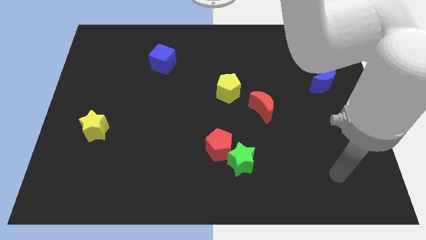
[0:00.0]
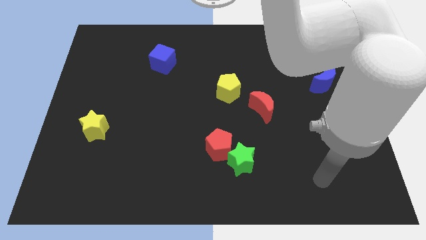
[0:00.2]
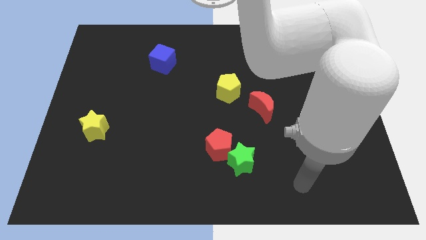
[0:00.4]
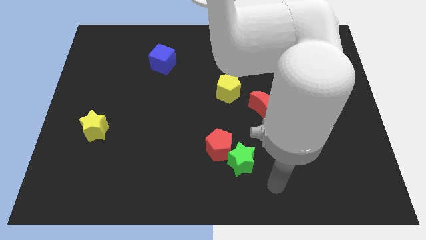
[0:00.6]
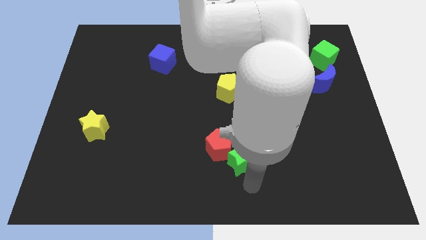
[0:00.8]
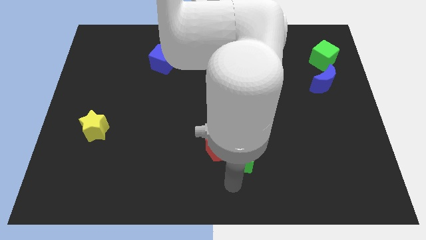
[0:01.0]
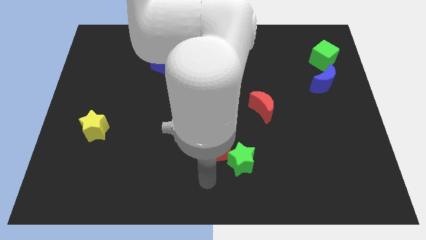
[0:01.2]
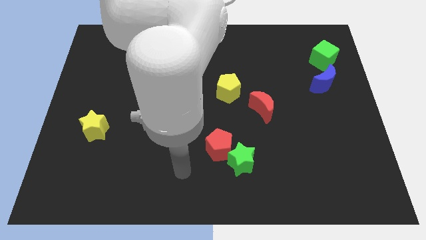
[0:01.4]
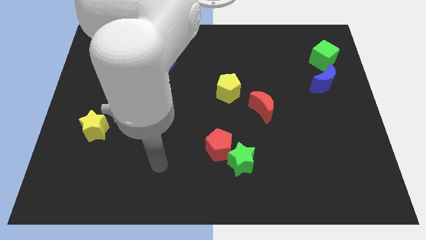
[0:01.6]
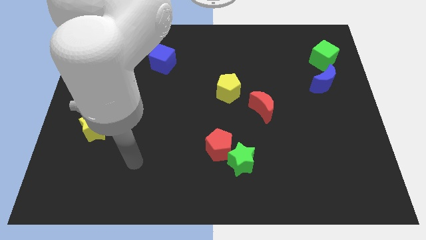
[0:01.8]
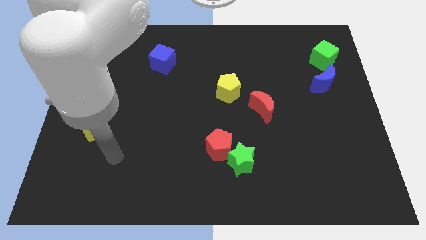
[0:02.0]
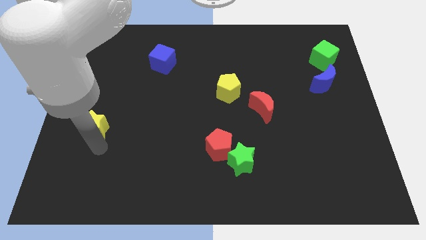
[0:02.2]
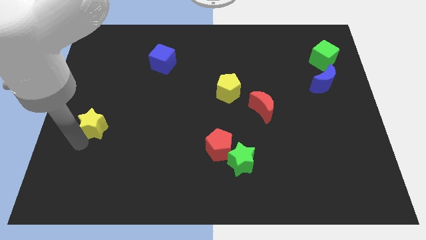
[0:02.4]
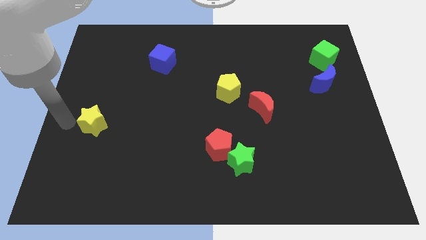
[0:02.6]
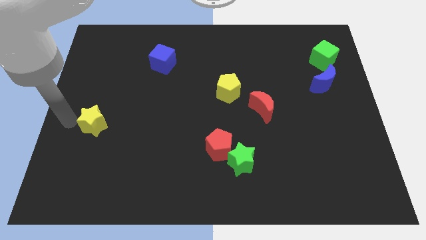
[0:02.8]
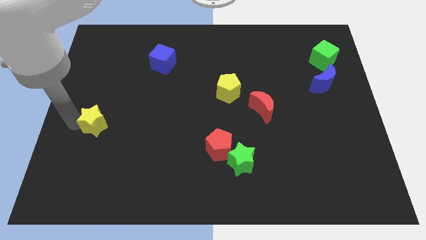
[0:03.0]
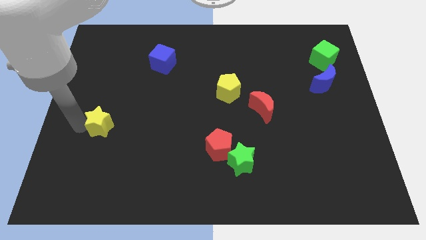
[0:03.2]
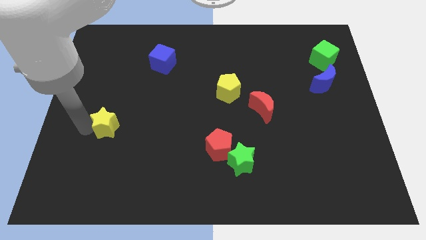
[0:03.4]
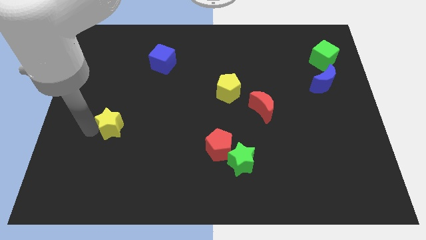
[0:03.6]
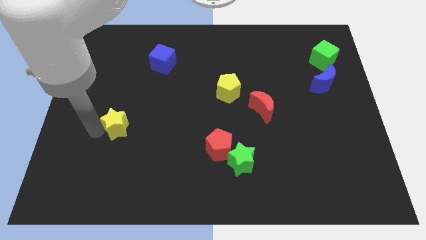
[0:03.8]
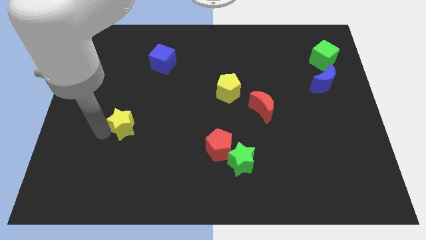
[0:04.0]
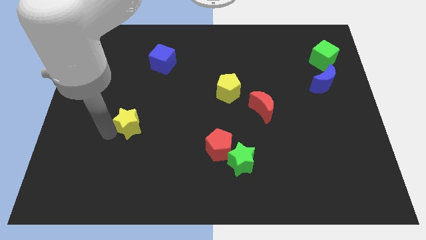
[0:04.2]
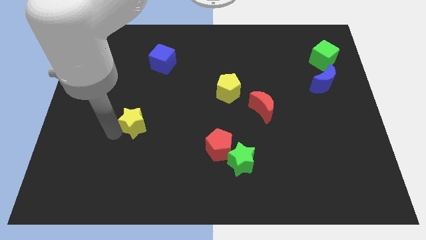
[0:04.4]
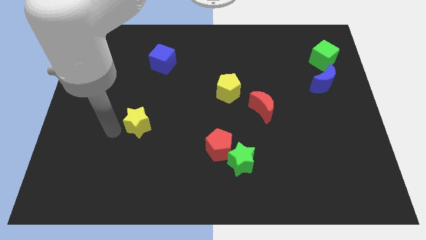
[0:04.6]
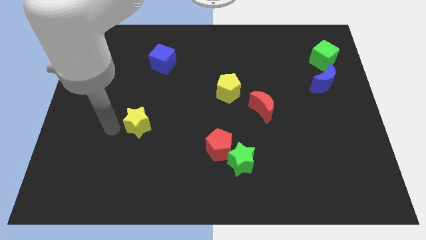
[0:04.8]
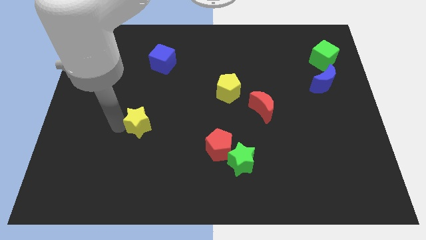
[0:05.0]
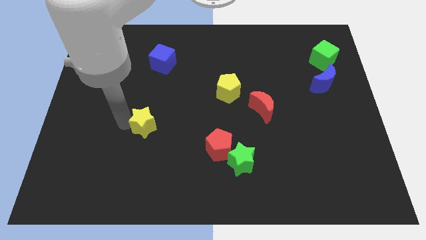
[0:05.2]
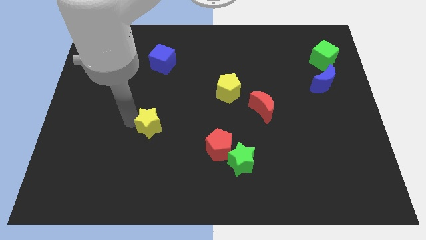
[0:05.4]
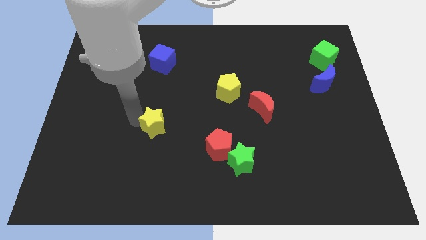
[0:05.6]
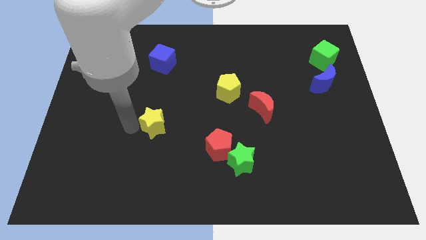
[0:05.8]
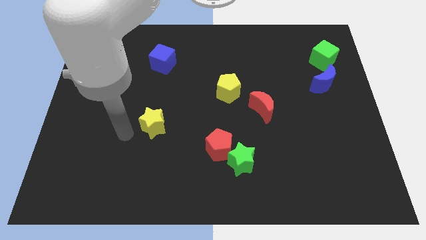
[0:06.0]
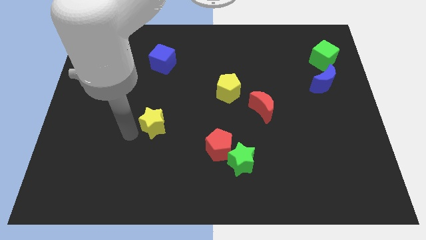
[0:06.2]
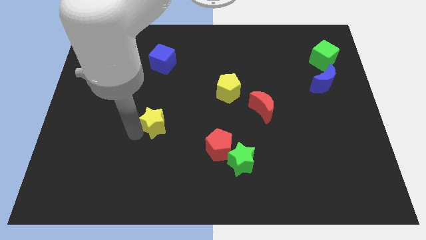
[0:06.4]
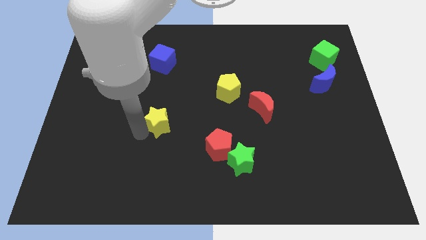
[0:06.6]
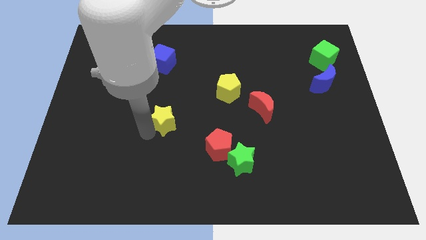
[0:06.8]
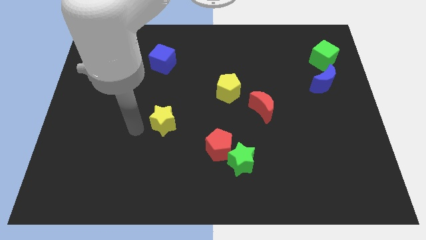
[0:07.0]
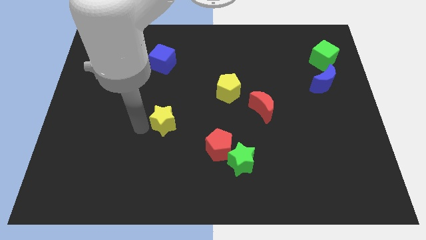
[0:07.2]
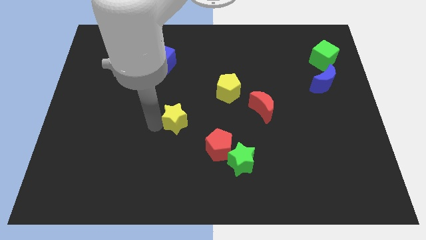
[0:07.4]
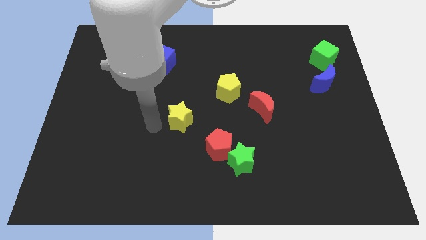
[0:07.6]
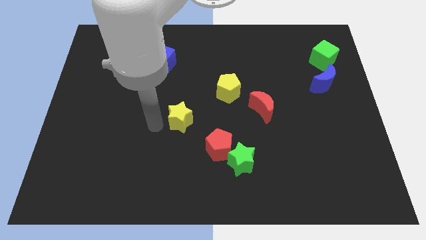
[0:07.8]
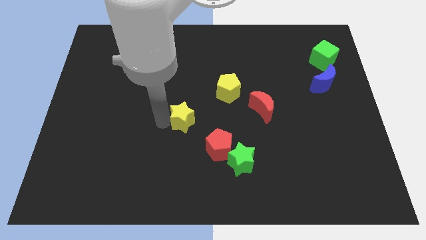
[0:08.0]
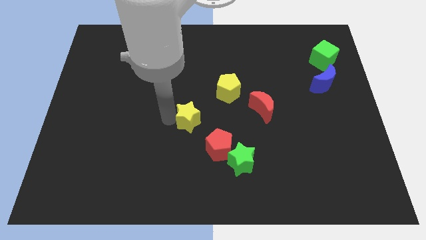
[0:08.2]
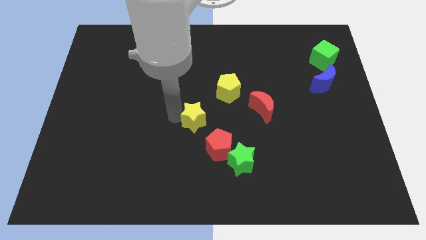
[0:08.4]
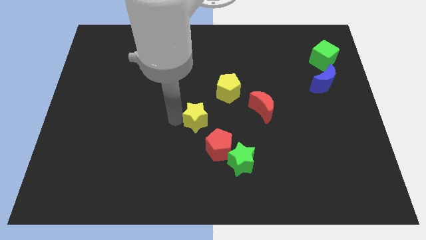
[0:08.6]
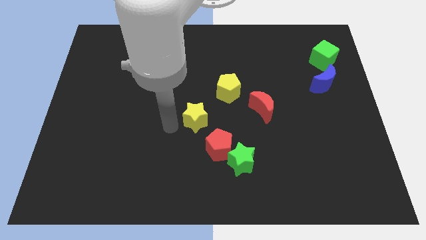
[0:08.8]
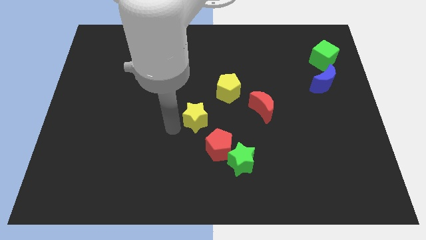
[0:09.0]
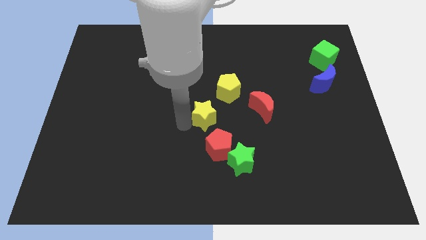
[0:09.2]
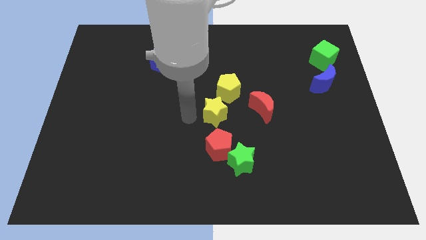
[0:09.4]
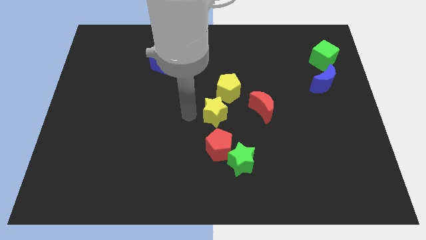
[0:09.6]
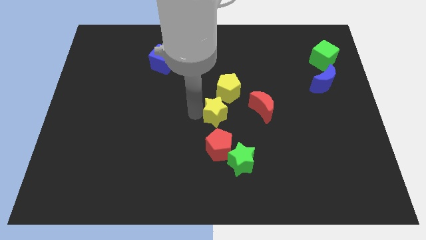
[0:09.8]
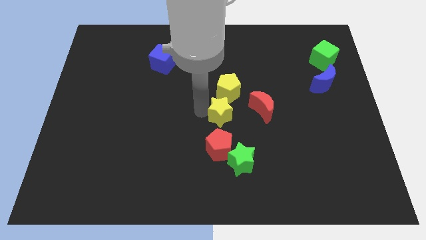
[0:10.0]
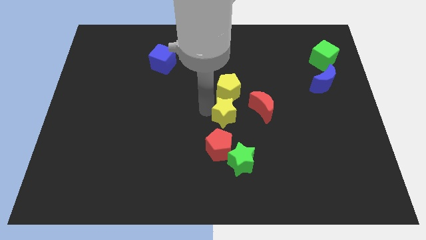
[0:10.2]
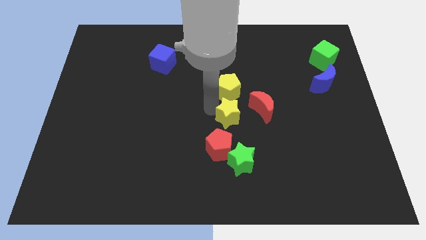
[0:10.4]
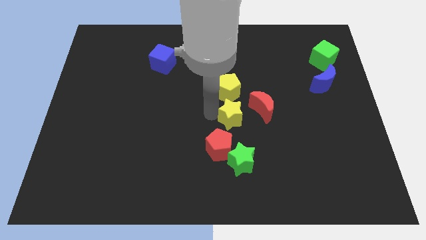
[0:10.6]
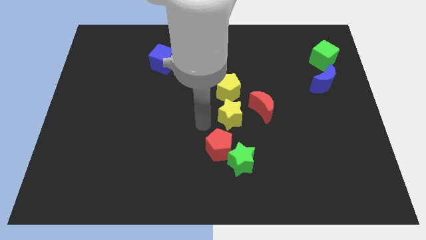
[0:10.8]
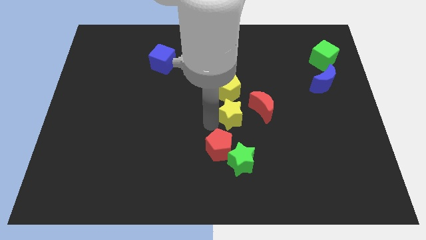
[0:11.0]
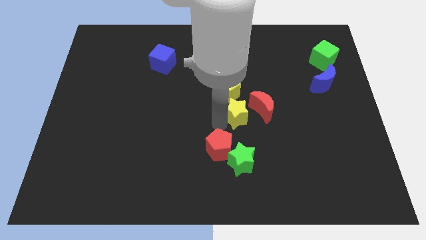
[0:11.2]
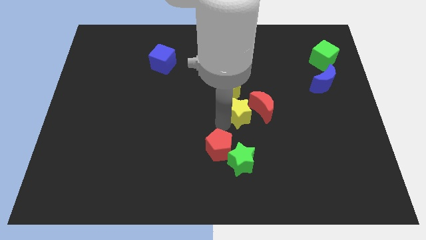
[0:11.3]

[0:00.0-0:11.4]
move the yellow star close to the red moon

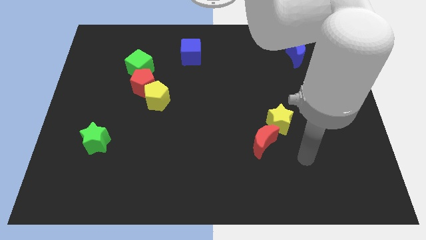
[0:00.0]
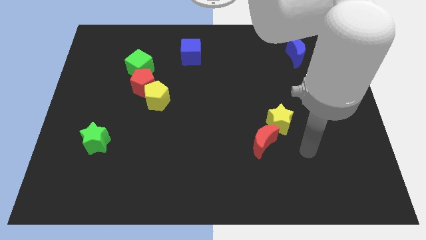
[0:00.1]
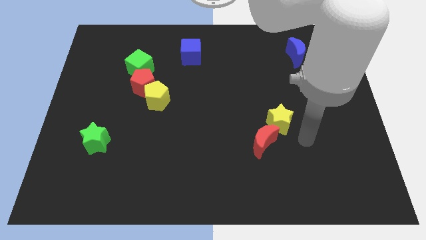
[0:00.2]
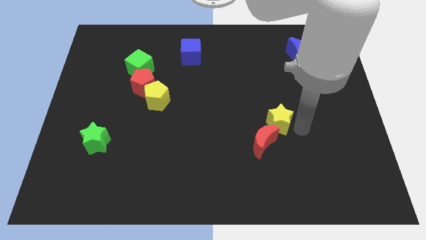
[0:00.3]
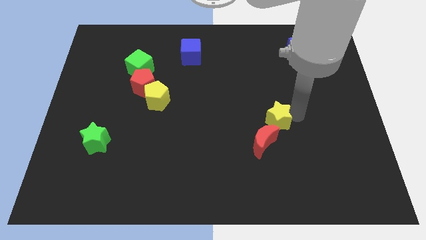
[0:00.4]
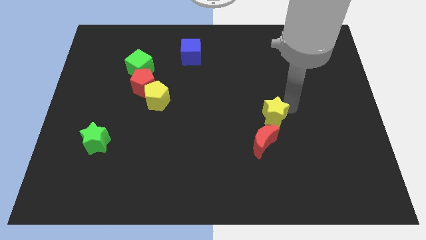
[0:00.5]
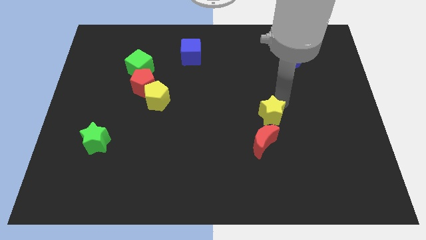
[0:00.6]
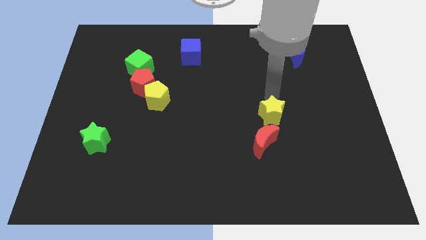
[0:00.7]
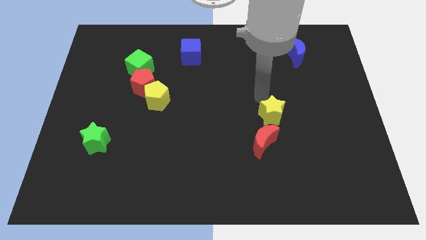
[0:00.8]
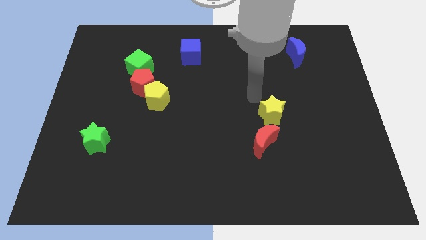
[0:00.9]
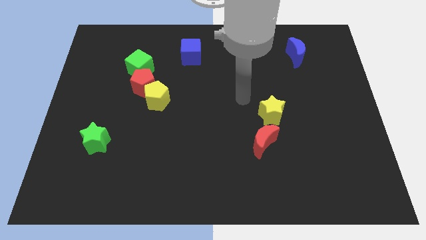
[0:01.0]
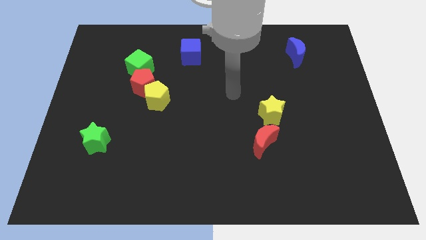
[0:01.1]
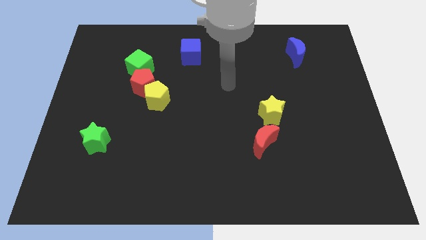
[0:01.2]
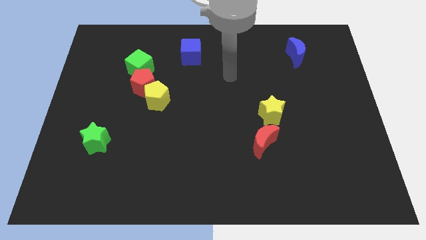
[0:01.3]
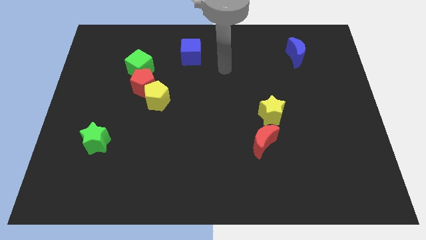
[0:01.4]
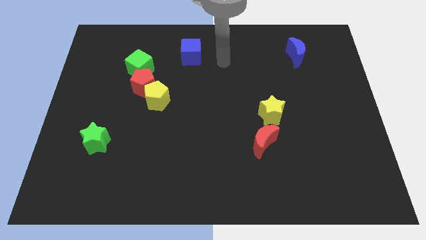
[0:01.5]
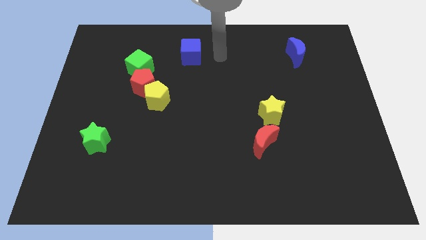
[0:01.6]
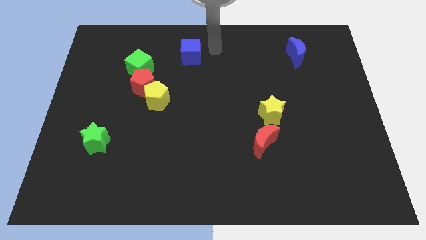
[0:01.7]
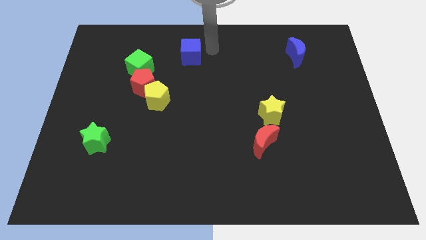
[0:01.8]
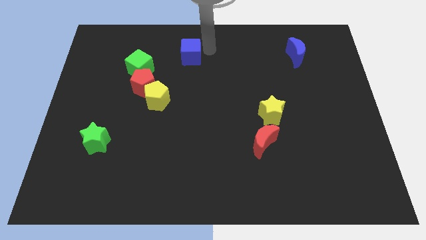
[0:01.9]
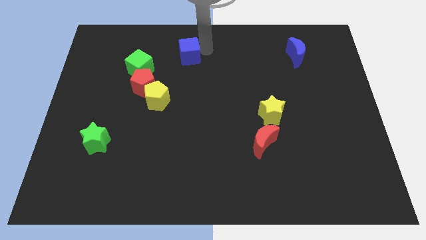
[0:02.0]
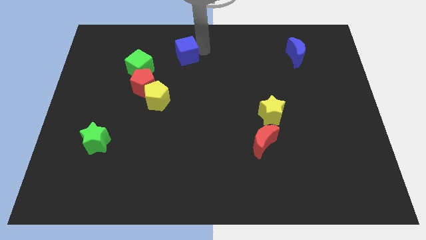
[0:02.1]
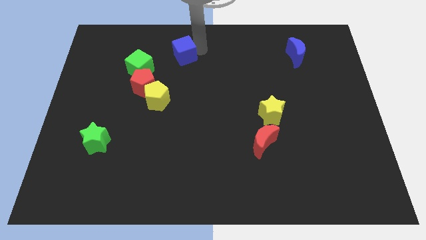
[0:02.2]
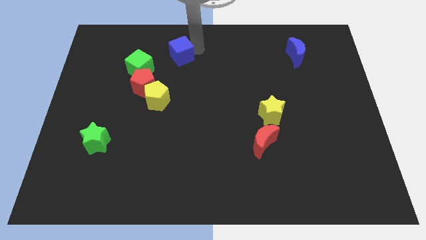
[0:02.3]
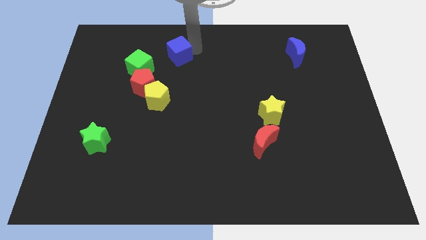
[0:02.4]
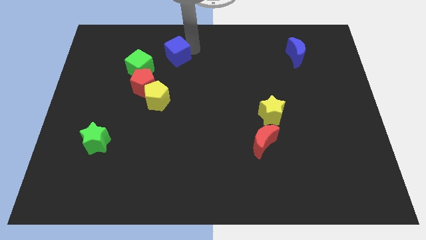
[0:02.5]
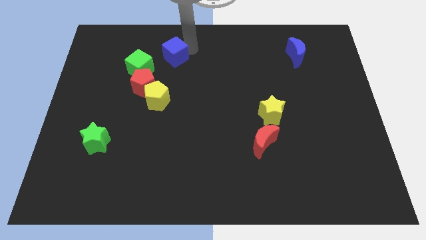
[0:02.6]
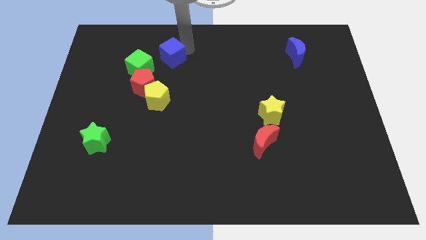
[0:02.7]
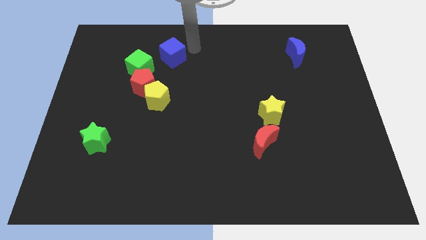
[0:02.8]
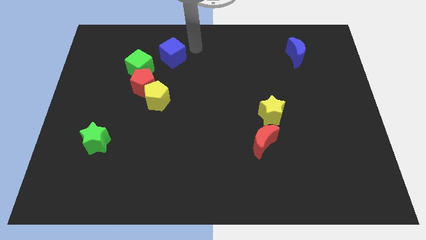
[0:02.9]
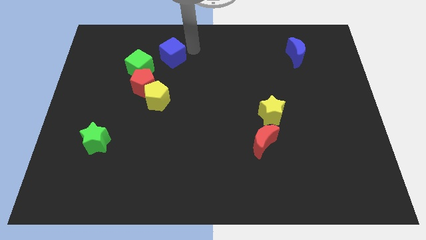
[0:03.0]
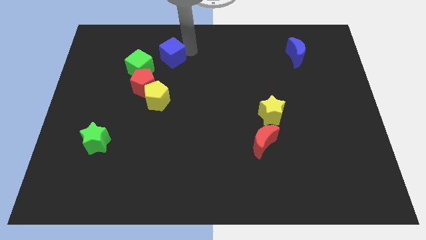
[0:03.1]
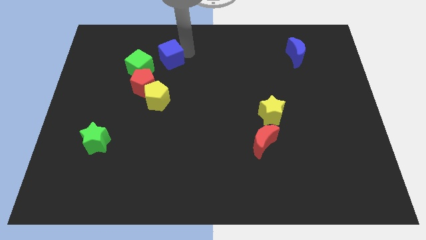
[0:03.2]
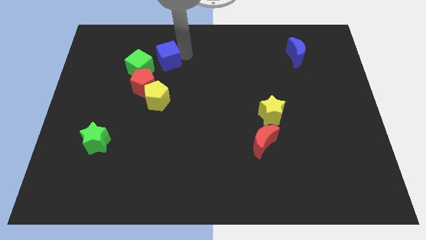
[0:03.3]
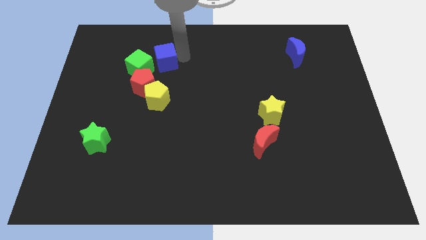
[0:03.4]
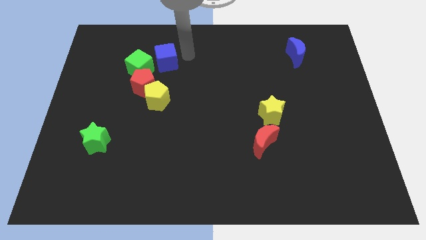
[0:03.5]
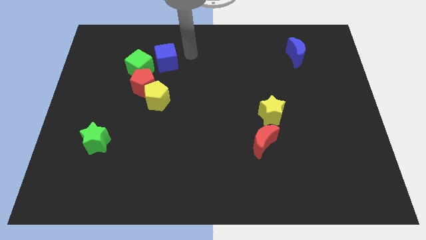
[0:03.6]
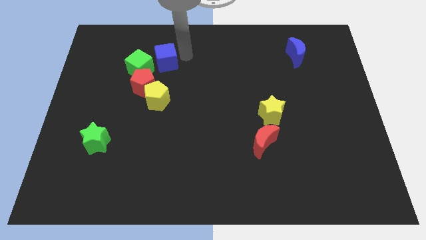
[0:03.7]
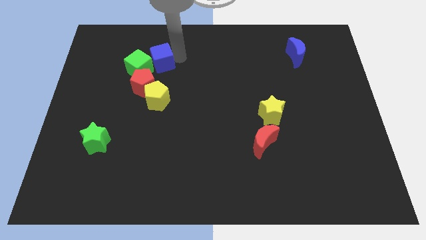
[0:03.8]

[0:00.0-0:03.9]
slide the blue cube to the green cube
